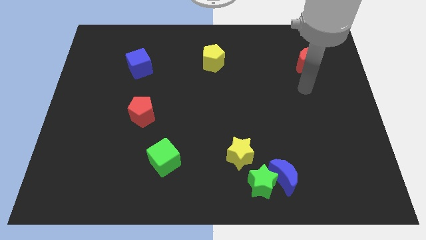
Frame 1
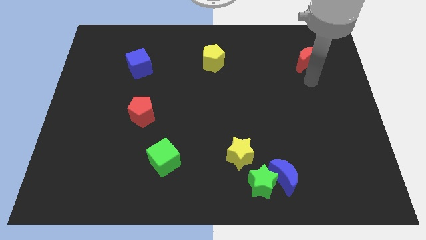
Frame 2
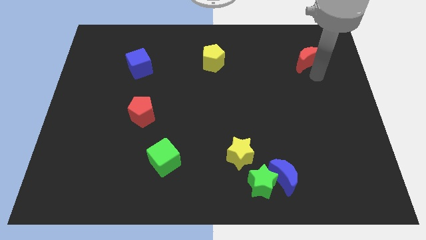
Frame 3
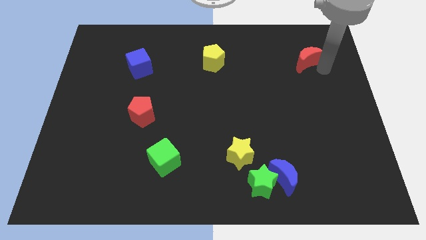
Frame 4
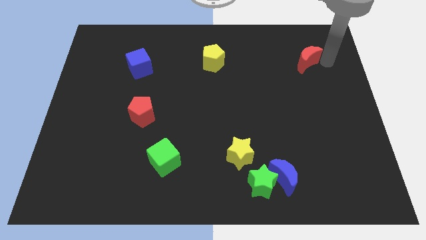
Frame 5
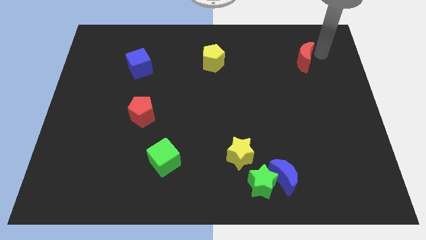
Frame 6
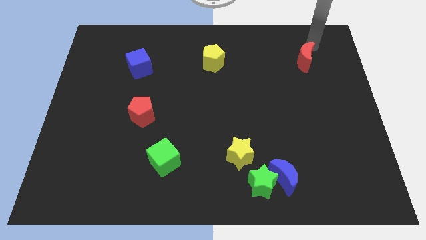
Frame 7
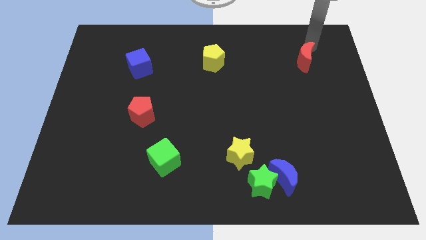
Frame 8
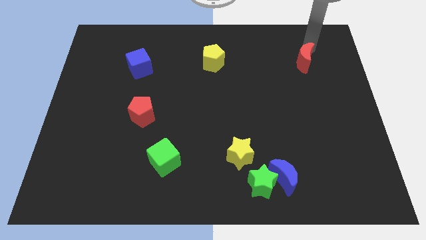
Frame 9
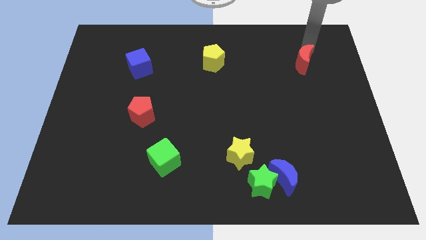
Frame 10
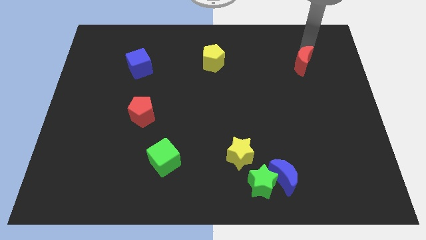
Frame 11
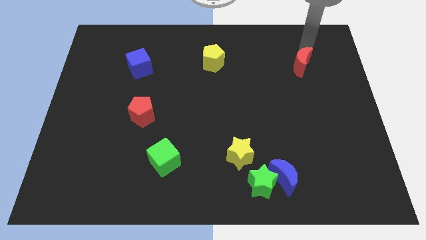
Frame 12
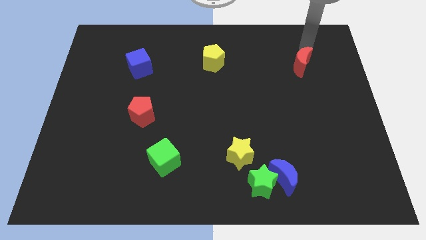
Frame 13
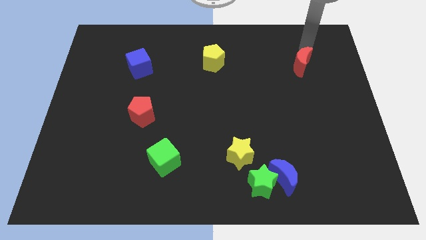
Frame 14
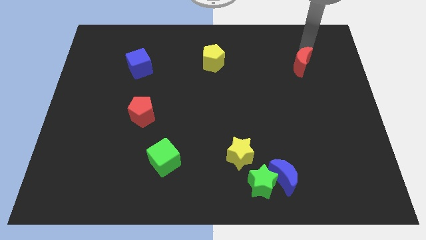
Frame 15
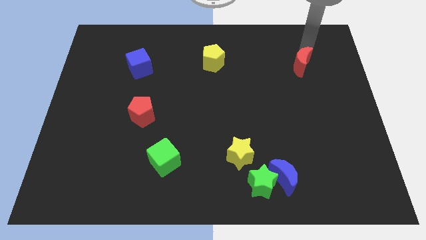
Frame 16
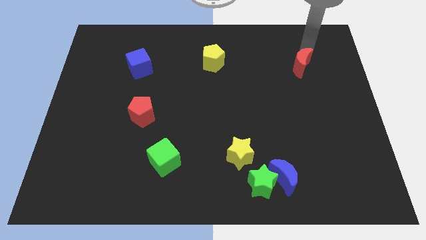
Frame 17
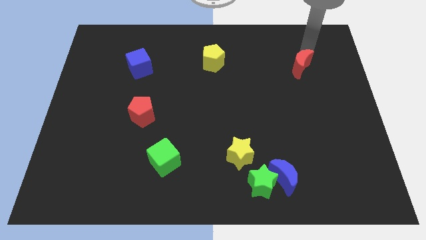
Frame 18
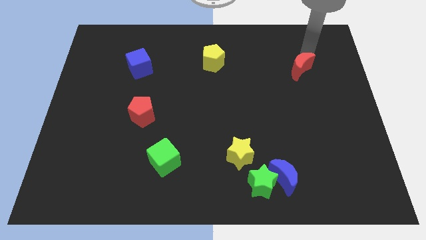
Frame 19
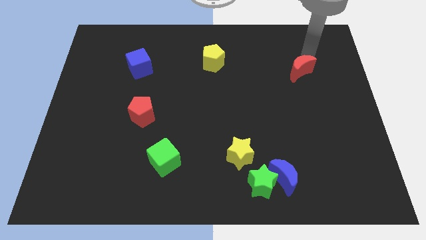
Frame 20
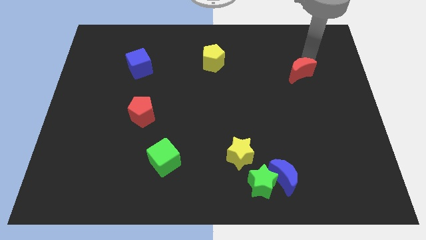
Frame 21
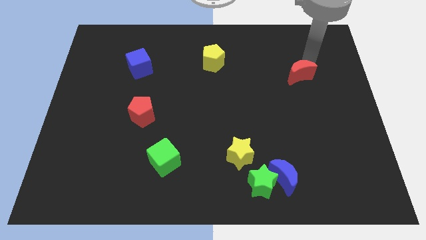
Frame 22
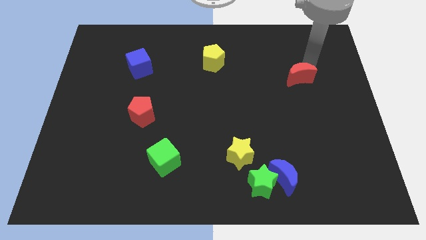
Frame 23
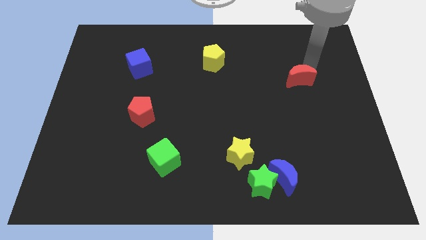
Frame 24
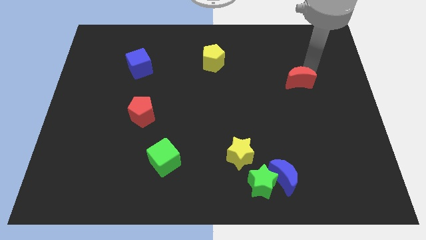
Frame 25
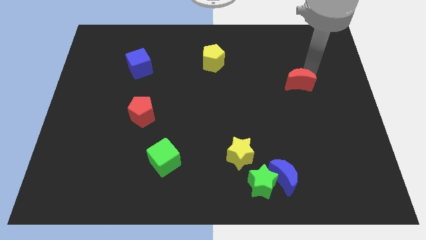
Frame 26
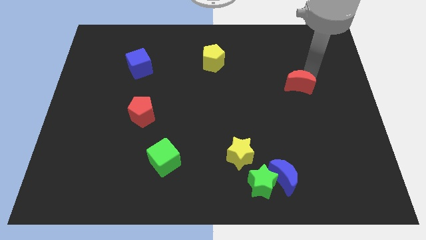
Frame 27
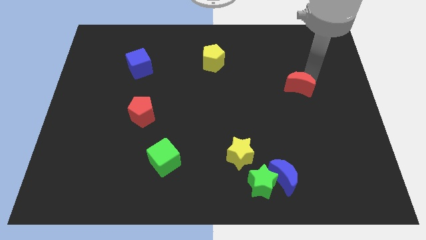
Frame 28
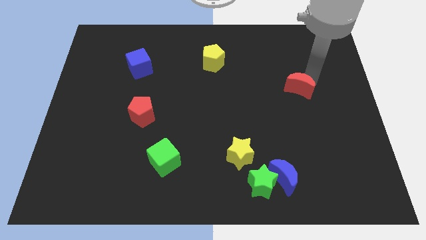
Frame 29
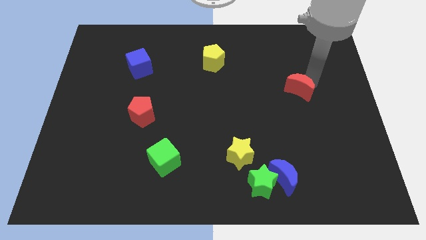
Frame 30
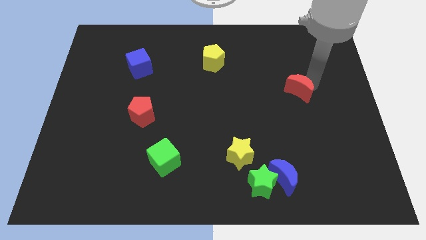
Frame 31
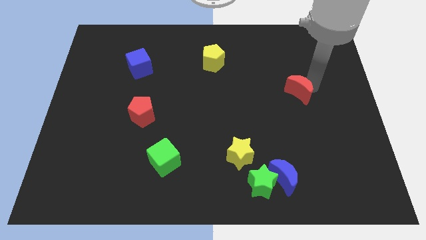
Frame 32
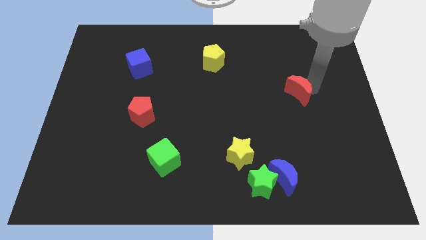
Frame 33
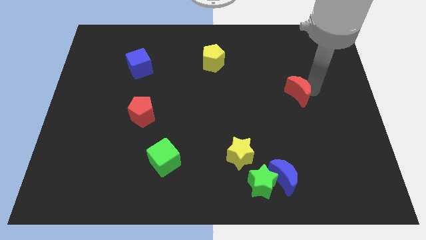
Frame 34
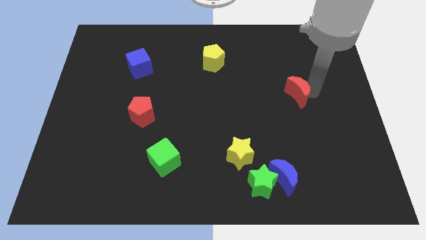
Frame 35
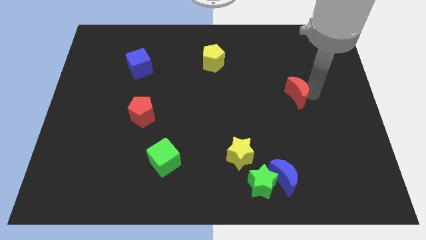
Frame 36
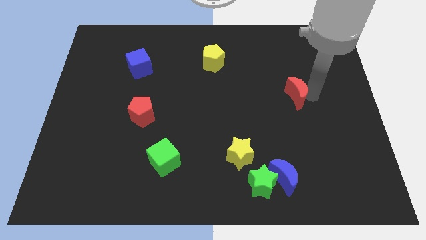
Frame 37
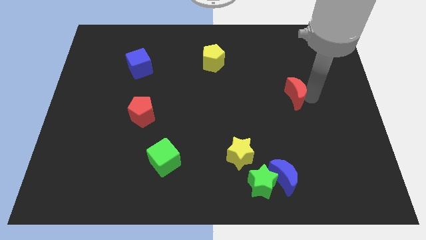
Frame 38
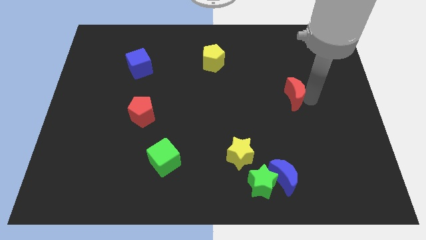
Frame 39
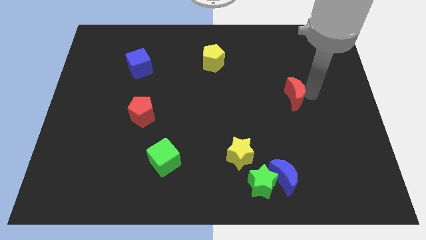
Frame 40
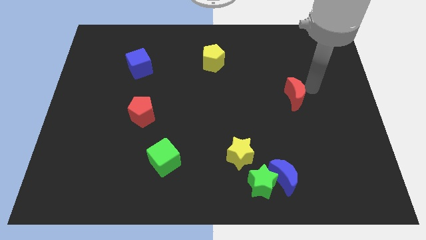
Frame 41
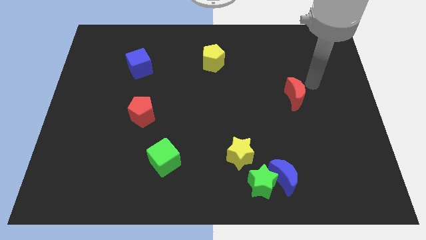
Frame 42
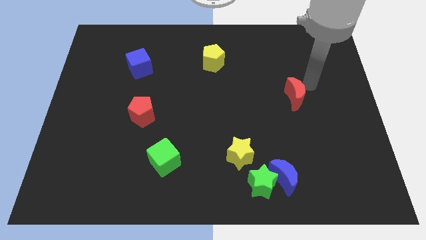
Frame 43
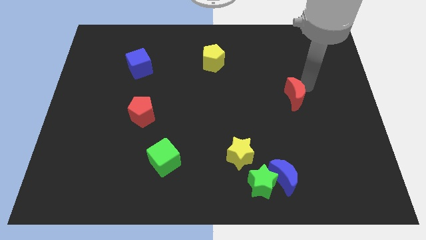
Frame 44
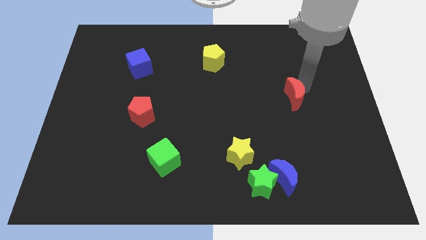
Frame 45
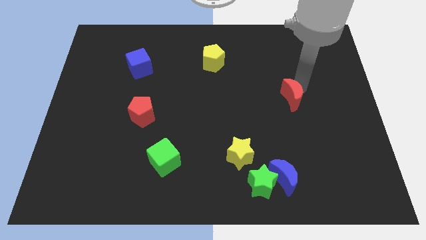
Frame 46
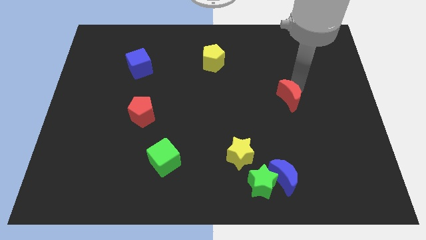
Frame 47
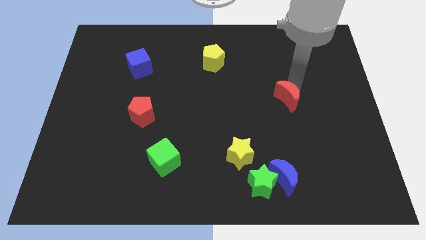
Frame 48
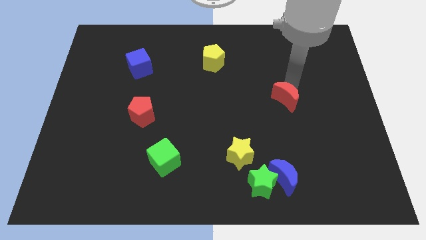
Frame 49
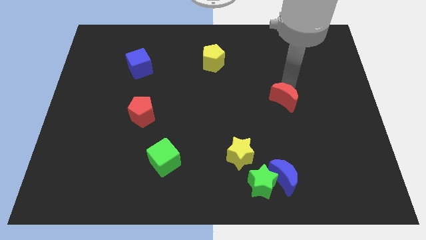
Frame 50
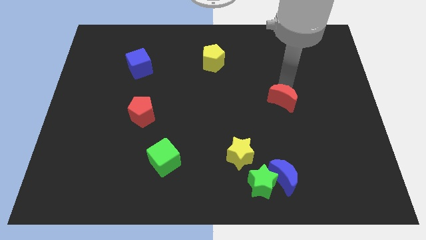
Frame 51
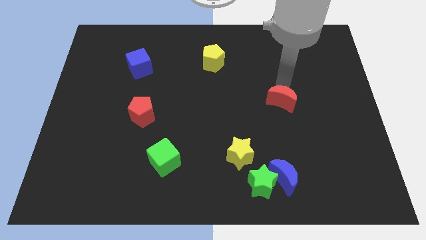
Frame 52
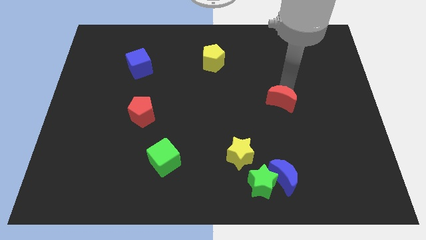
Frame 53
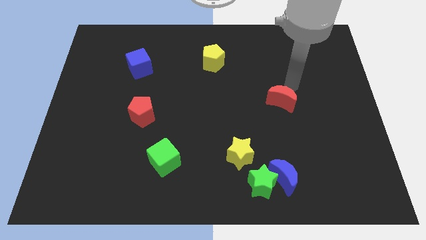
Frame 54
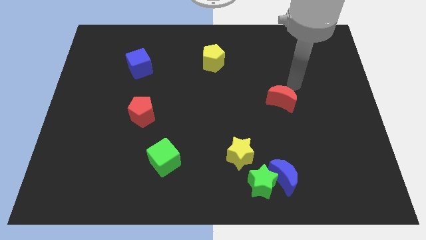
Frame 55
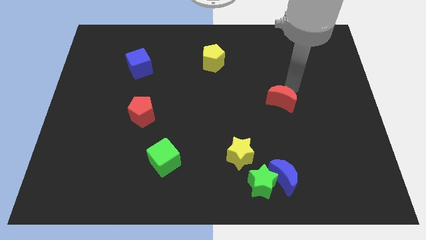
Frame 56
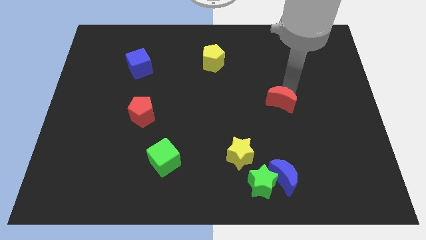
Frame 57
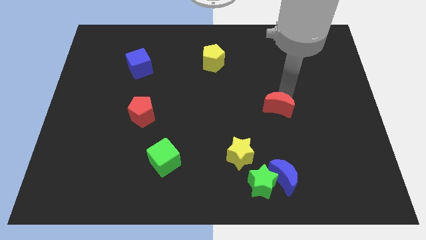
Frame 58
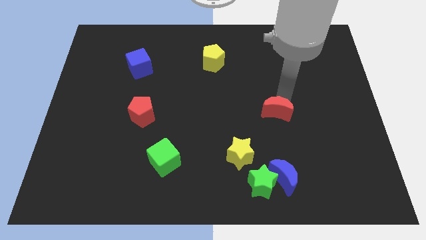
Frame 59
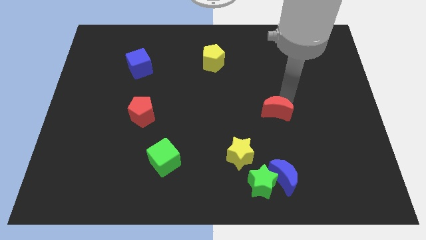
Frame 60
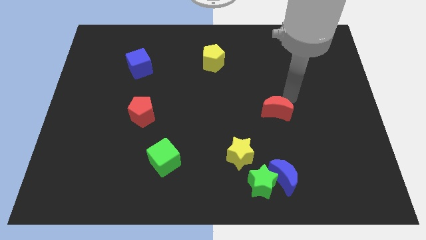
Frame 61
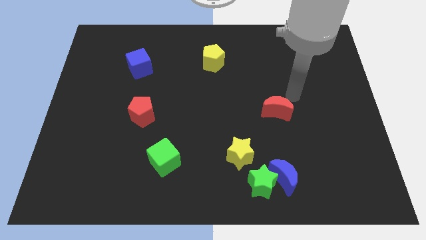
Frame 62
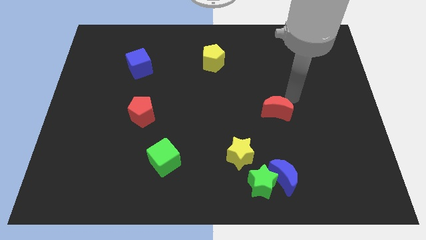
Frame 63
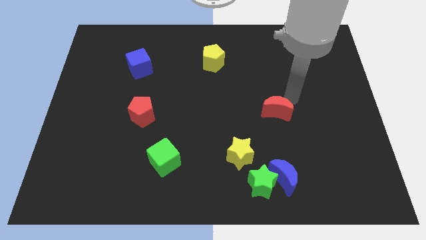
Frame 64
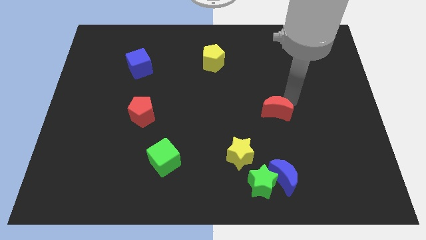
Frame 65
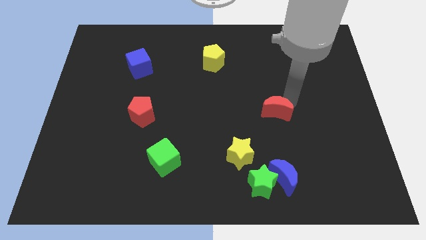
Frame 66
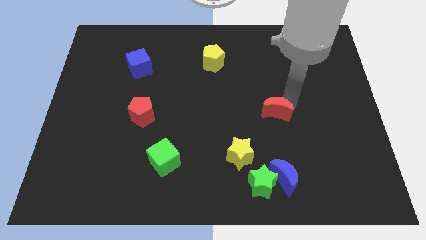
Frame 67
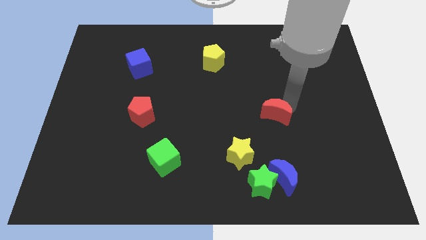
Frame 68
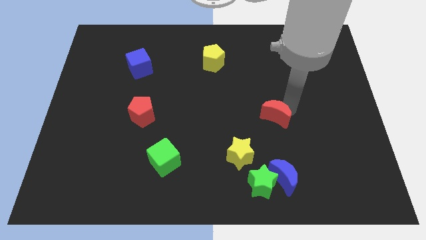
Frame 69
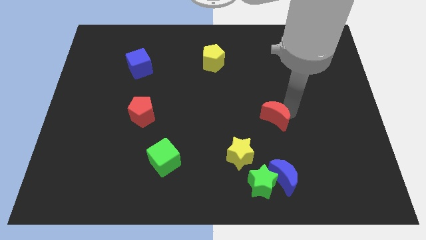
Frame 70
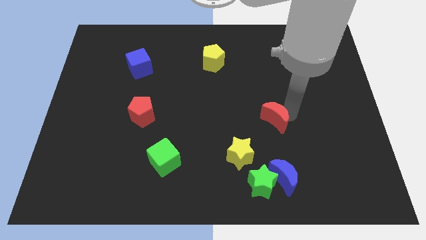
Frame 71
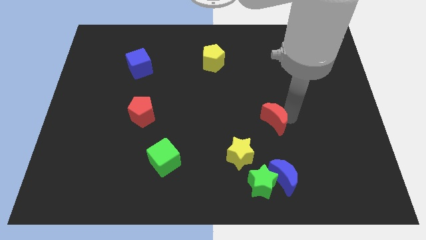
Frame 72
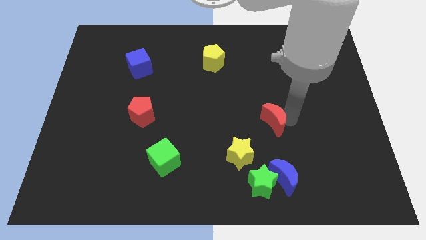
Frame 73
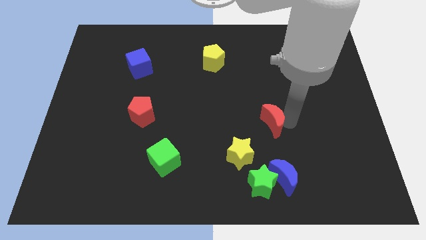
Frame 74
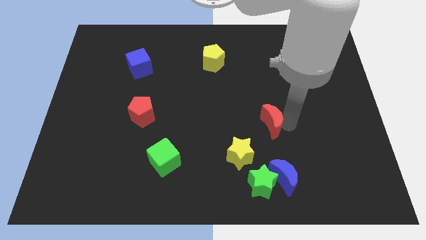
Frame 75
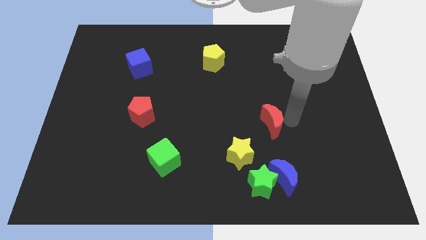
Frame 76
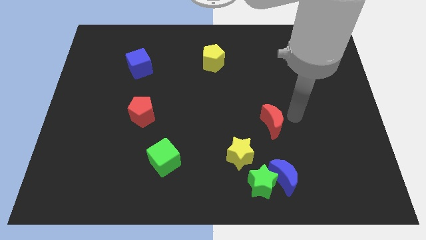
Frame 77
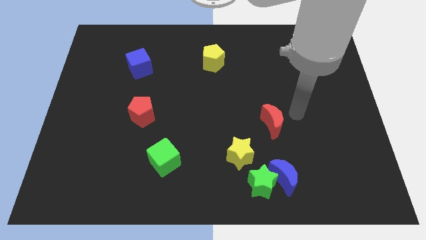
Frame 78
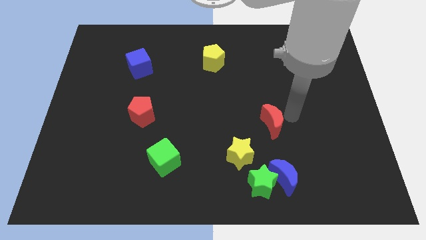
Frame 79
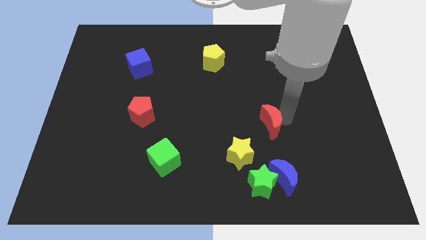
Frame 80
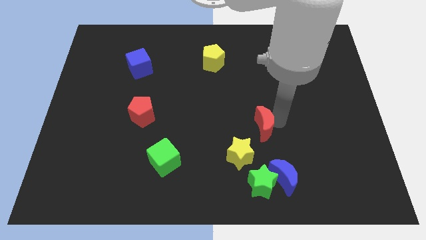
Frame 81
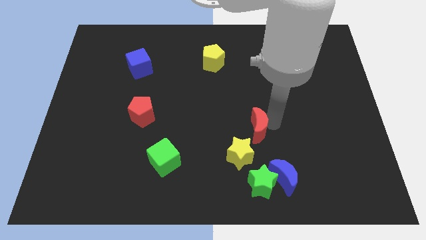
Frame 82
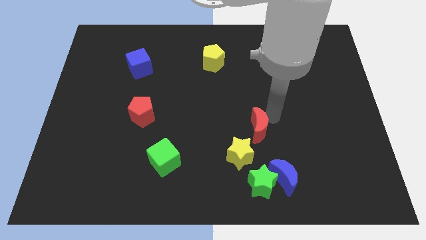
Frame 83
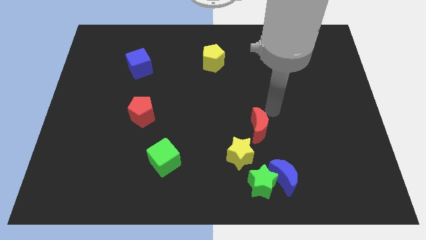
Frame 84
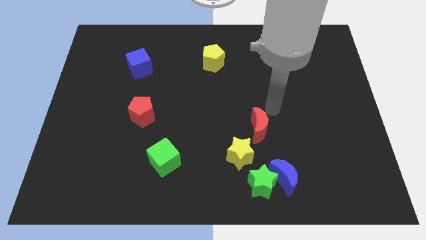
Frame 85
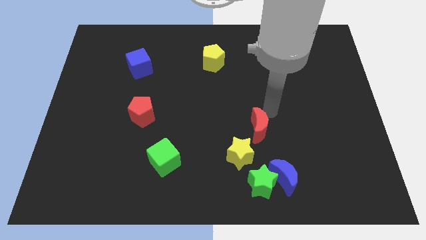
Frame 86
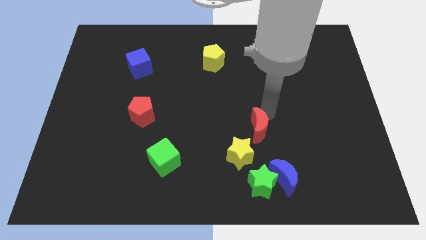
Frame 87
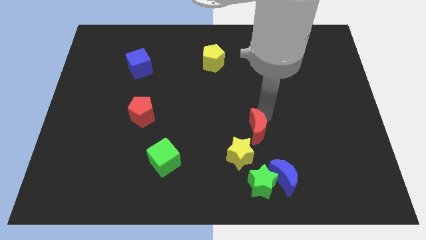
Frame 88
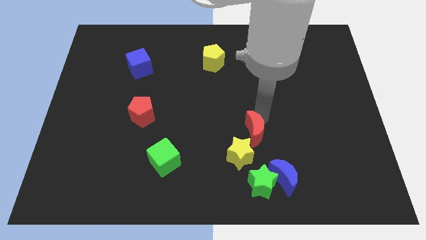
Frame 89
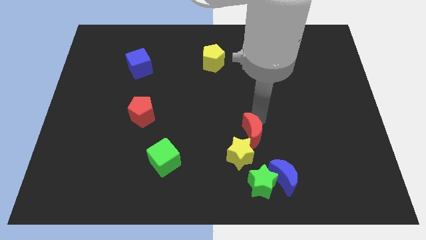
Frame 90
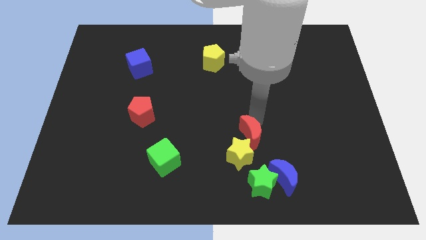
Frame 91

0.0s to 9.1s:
slide the red moon to the yellow star
